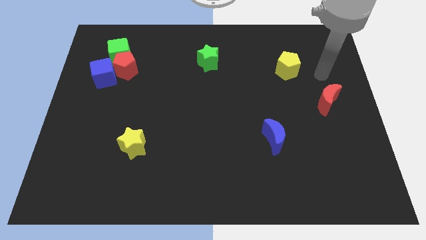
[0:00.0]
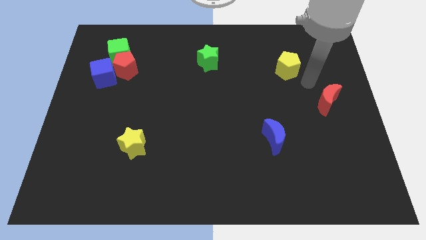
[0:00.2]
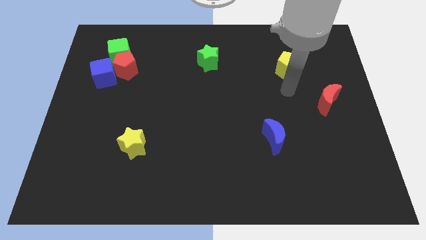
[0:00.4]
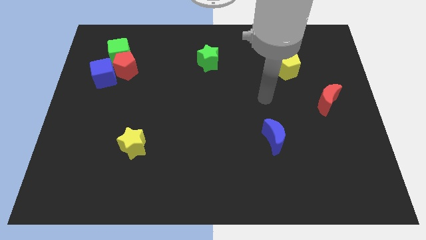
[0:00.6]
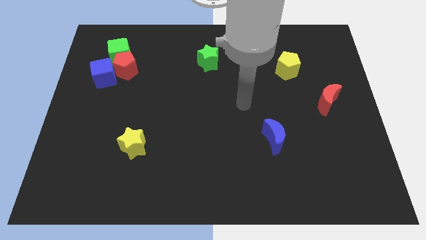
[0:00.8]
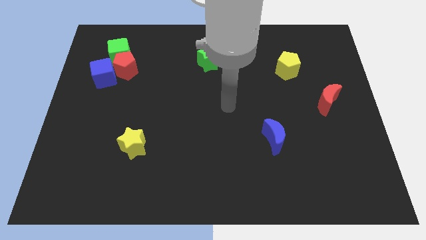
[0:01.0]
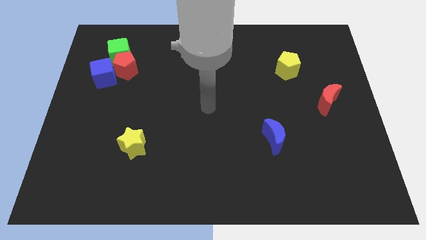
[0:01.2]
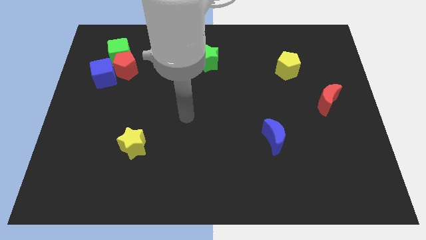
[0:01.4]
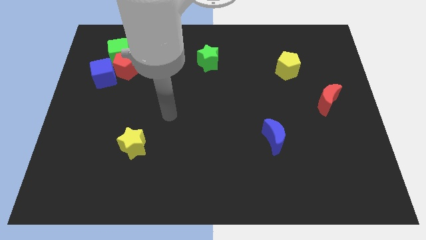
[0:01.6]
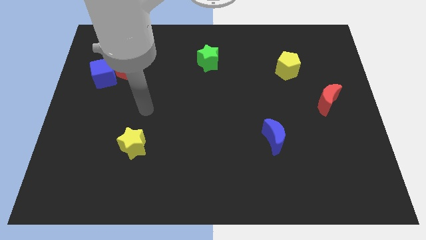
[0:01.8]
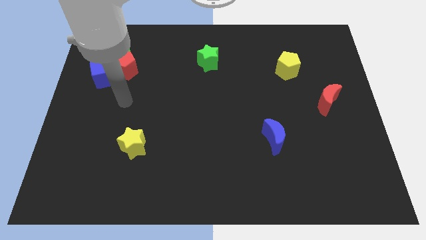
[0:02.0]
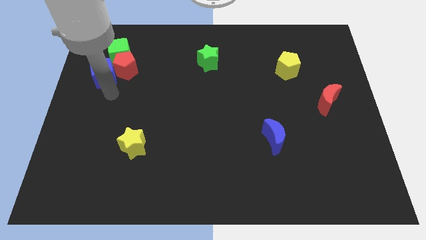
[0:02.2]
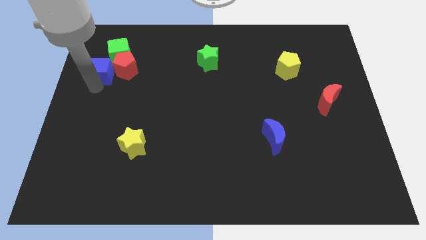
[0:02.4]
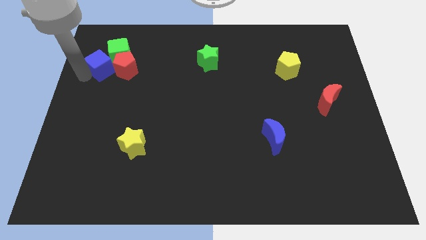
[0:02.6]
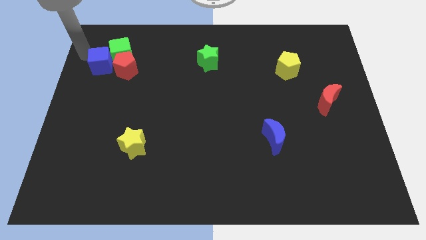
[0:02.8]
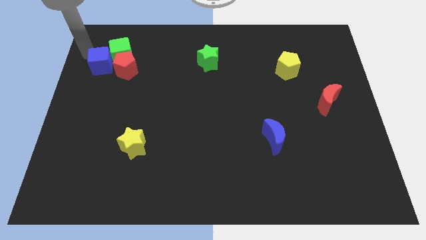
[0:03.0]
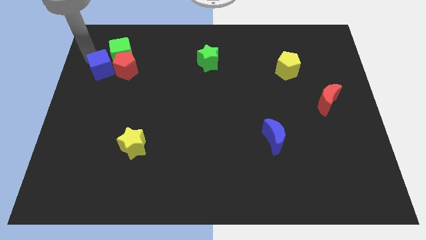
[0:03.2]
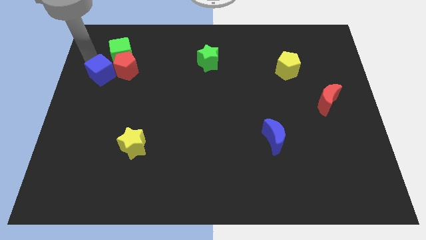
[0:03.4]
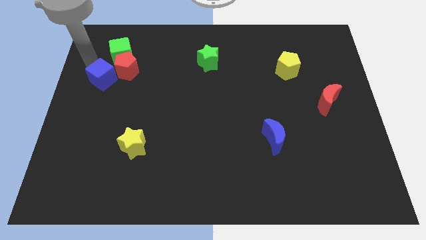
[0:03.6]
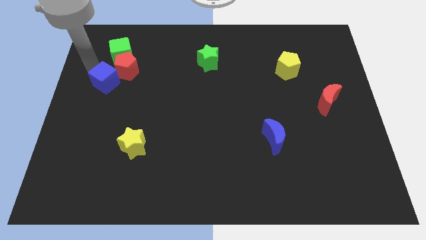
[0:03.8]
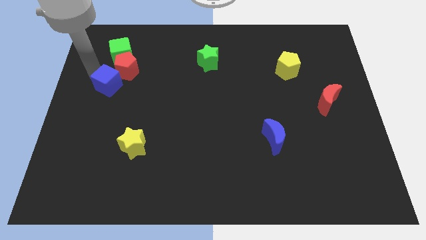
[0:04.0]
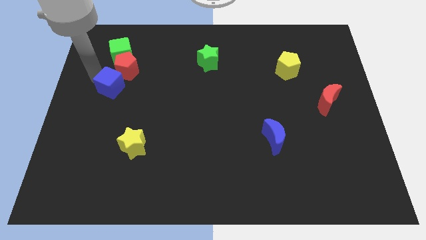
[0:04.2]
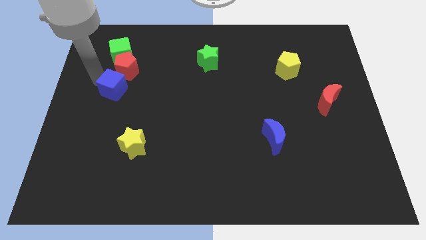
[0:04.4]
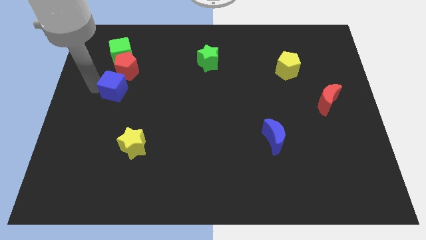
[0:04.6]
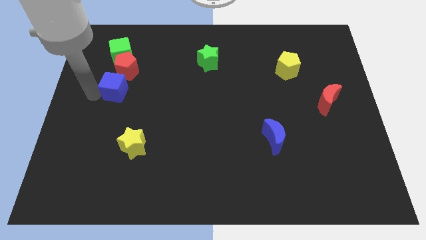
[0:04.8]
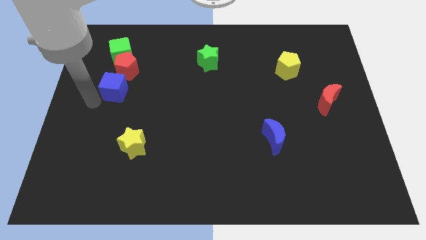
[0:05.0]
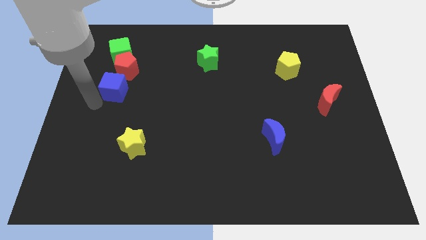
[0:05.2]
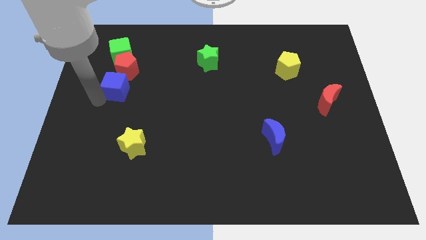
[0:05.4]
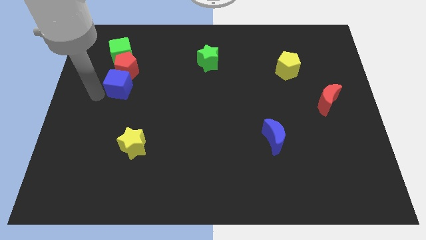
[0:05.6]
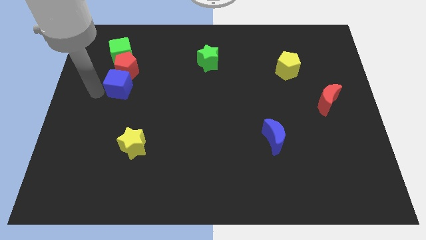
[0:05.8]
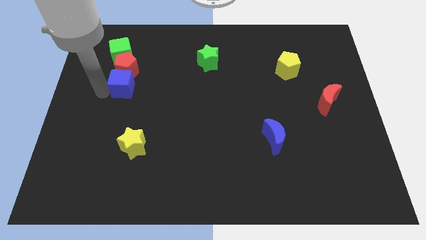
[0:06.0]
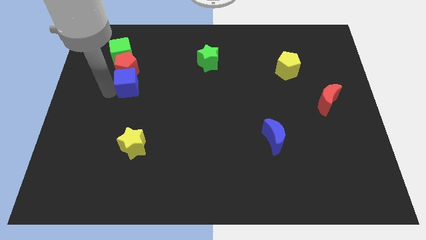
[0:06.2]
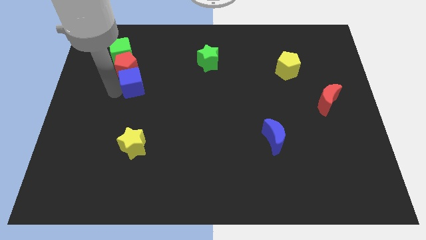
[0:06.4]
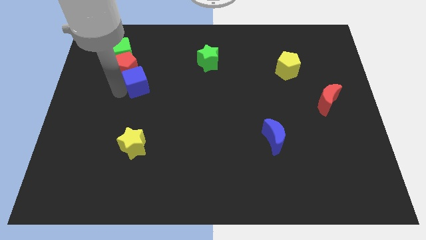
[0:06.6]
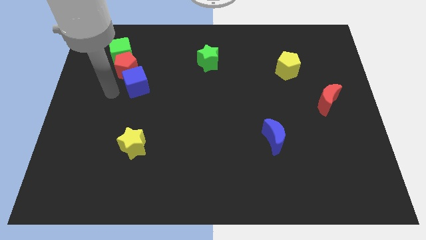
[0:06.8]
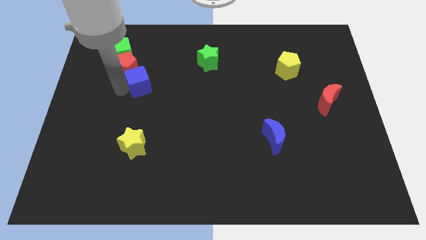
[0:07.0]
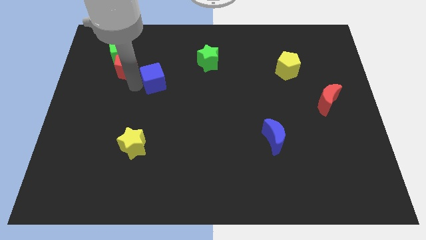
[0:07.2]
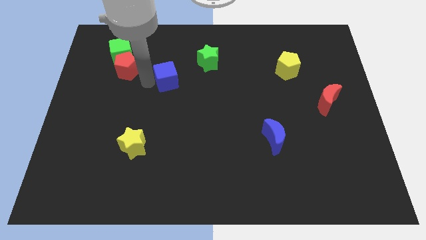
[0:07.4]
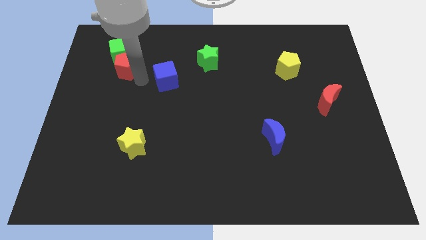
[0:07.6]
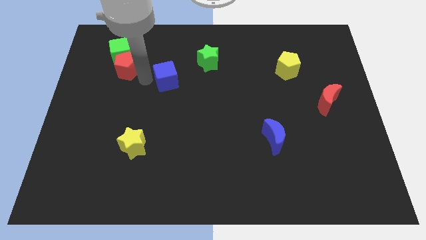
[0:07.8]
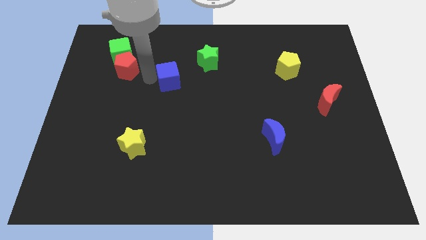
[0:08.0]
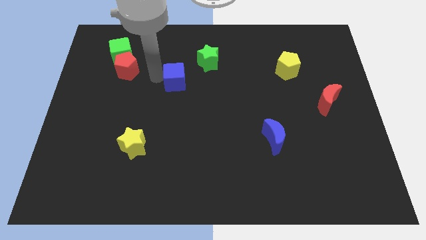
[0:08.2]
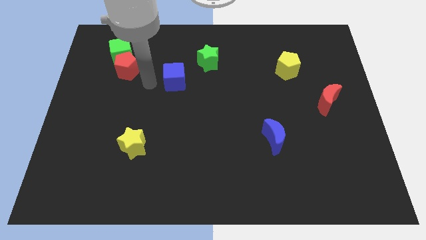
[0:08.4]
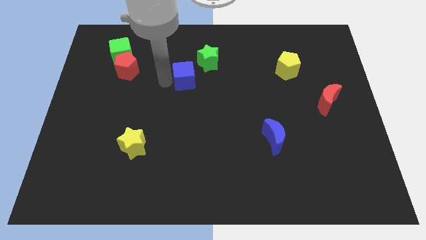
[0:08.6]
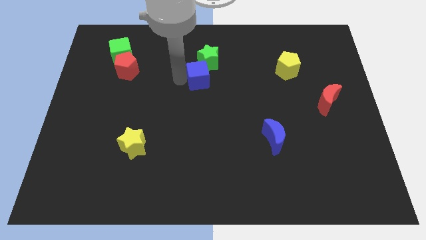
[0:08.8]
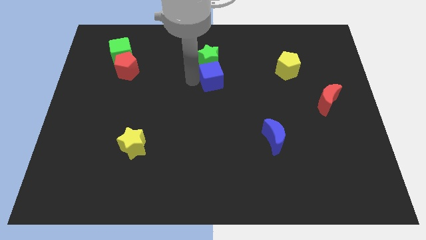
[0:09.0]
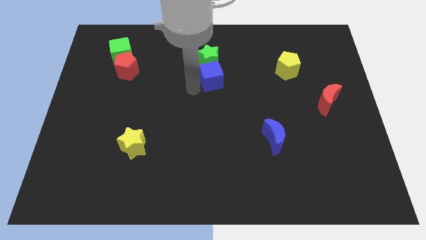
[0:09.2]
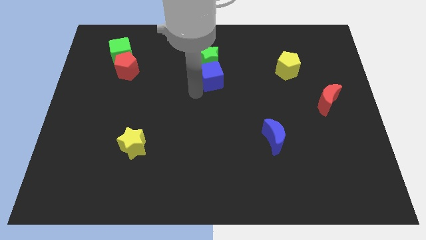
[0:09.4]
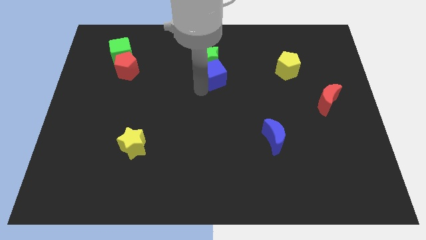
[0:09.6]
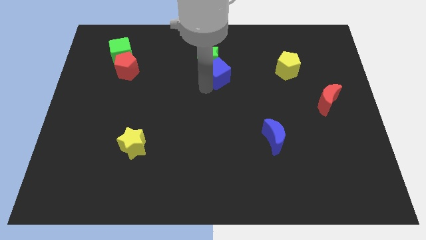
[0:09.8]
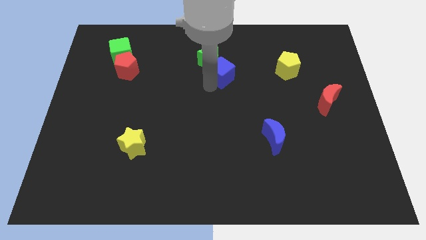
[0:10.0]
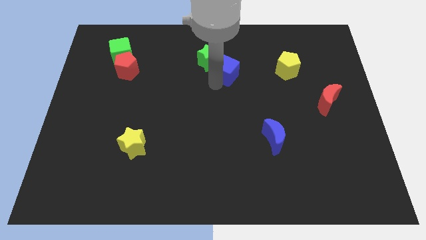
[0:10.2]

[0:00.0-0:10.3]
put the blue cube to the right of the green star

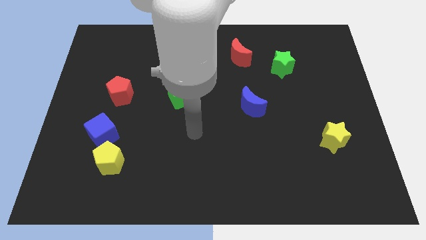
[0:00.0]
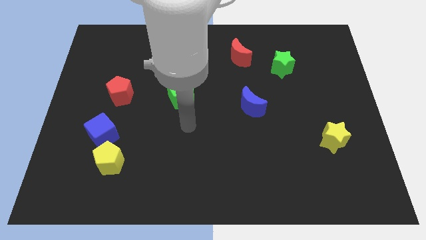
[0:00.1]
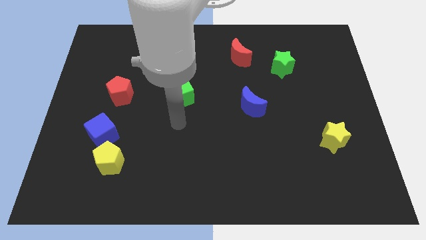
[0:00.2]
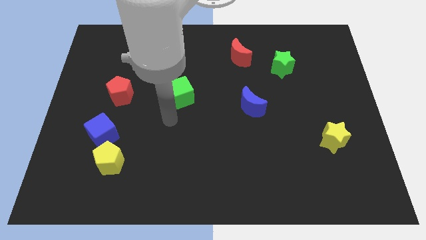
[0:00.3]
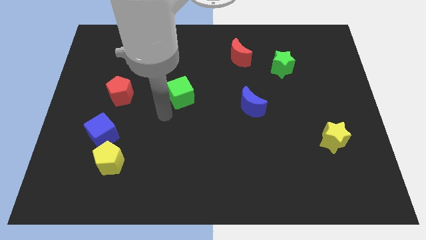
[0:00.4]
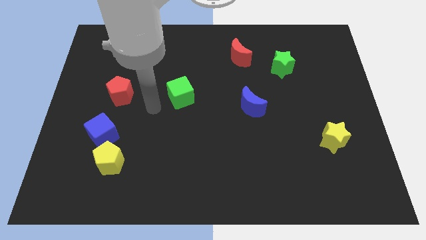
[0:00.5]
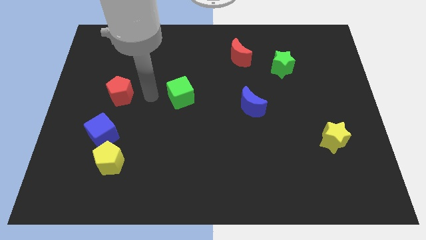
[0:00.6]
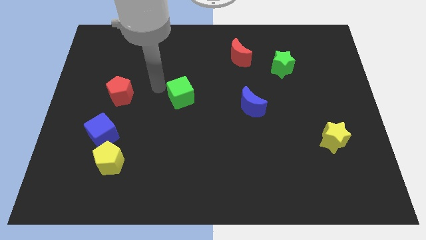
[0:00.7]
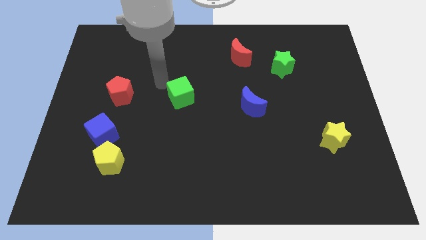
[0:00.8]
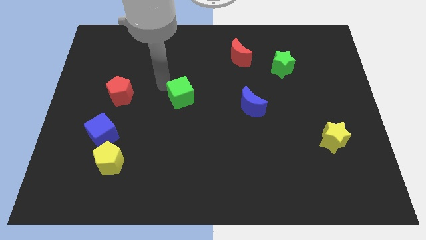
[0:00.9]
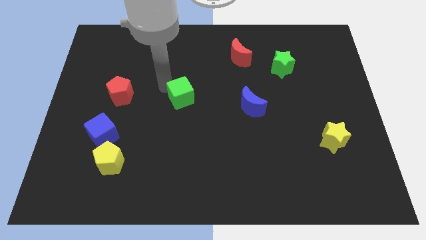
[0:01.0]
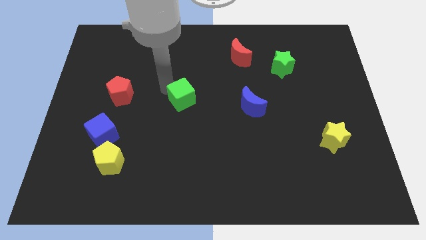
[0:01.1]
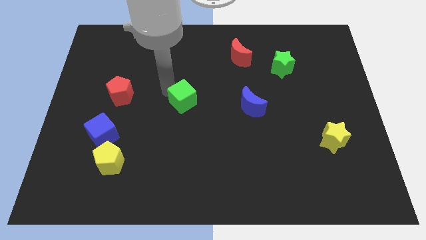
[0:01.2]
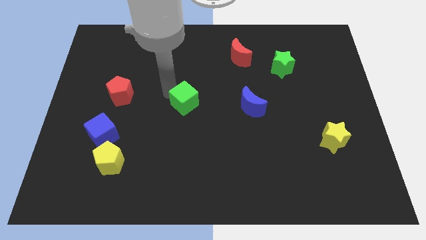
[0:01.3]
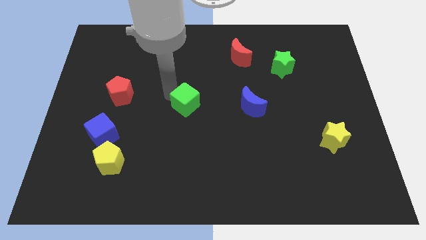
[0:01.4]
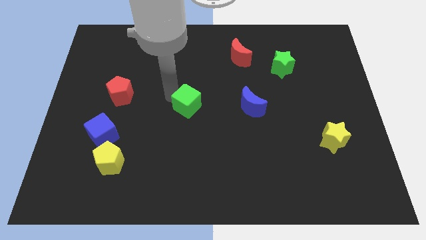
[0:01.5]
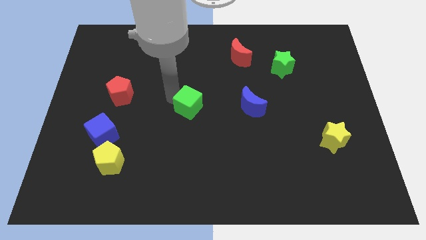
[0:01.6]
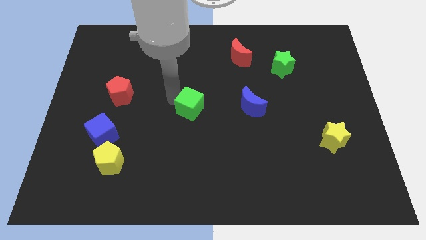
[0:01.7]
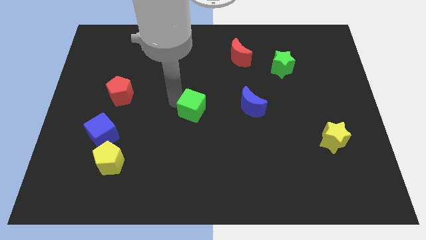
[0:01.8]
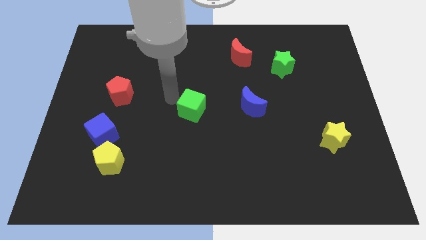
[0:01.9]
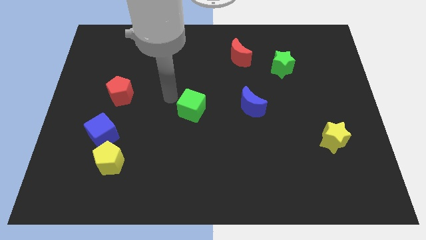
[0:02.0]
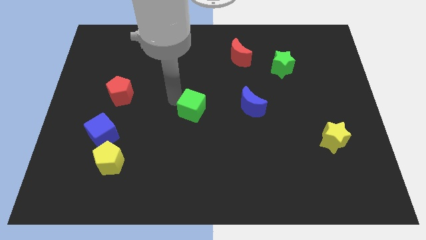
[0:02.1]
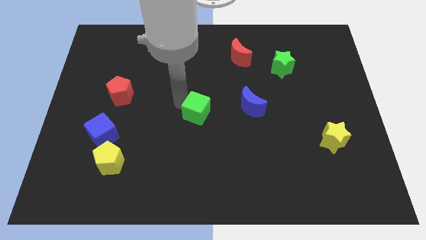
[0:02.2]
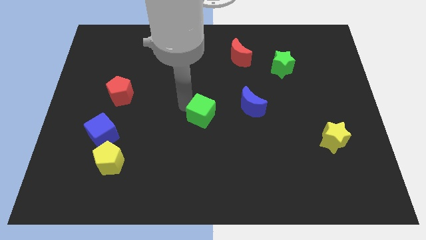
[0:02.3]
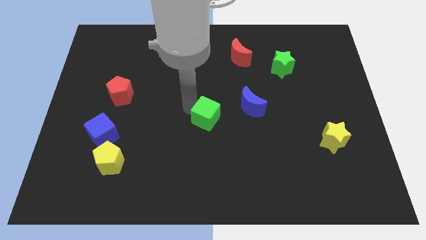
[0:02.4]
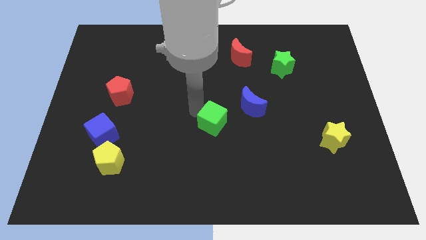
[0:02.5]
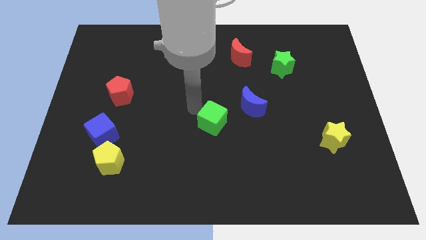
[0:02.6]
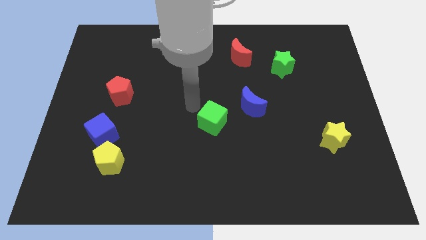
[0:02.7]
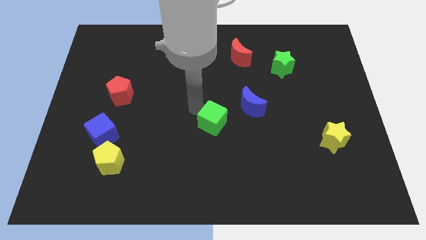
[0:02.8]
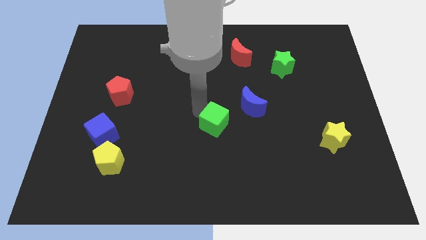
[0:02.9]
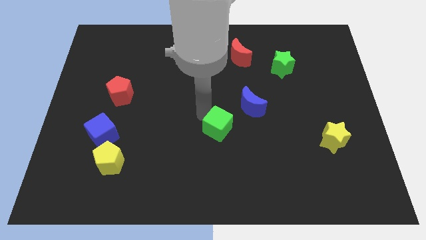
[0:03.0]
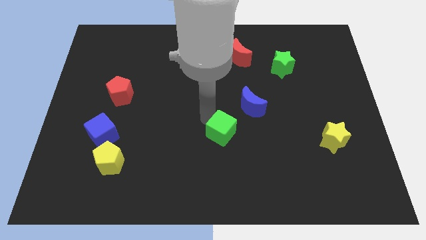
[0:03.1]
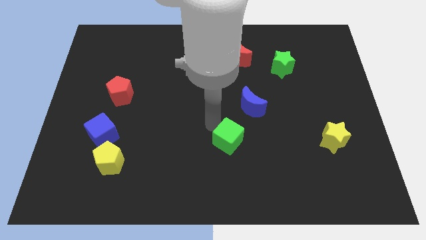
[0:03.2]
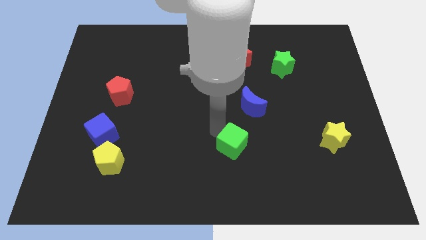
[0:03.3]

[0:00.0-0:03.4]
put the green cube below the blue moon
